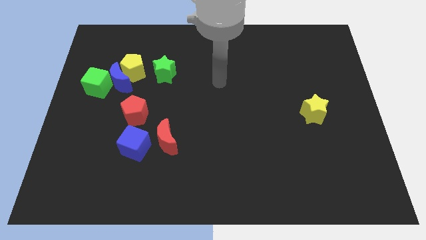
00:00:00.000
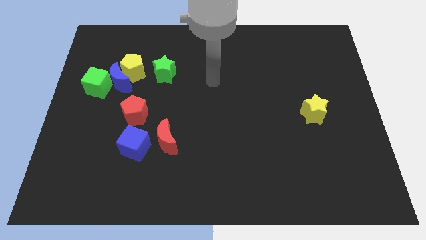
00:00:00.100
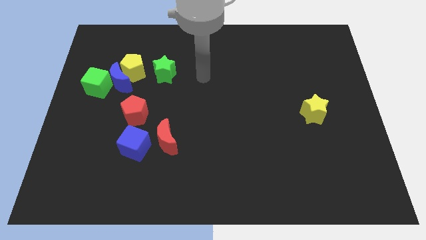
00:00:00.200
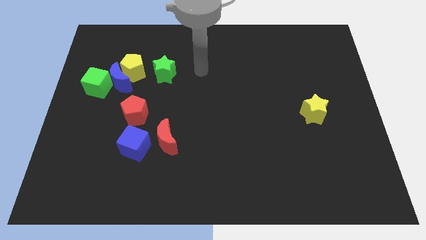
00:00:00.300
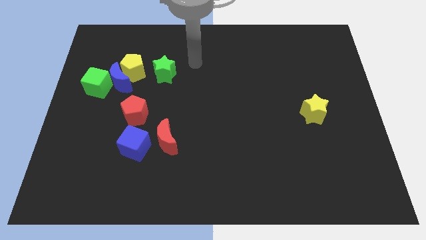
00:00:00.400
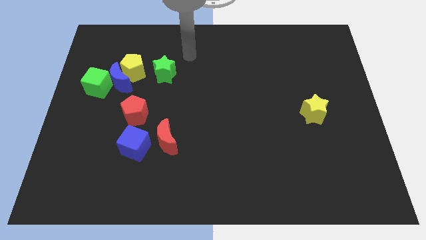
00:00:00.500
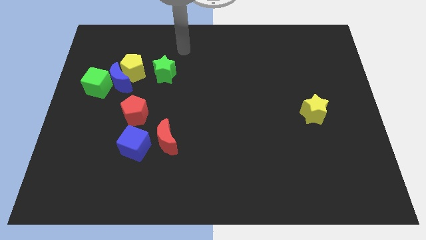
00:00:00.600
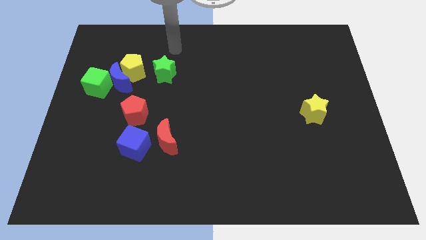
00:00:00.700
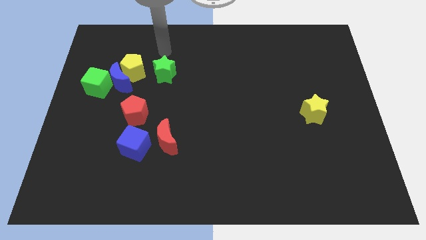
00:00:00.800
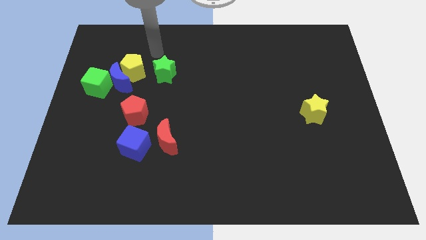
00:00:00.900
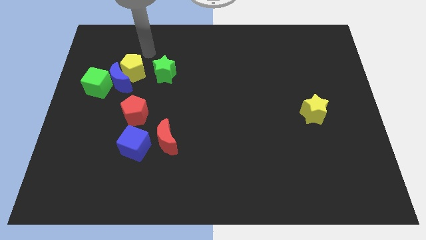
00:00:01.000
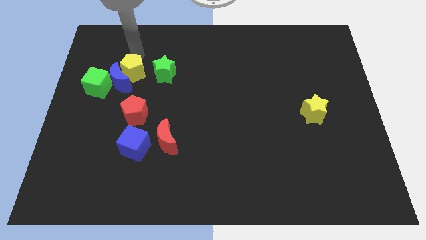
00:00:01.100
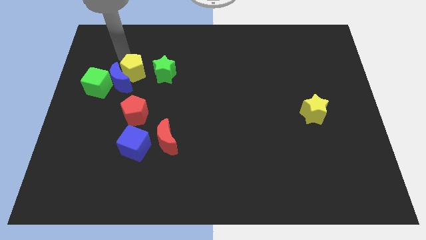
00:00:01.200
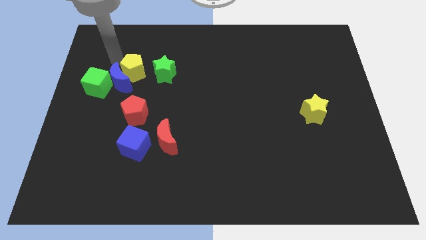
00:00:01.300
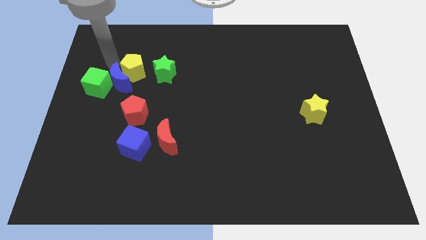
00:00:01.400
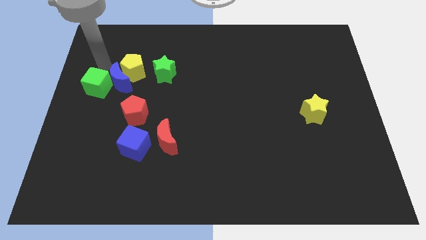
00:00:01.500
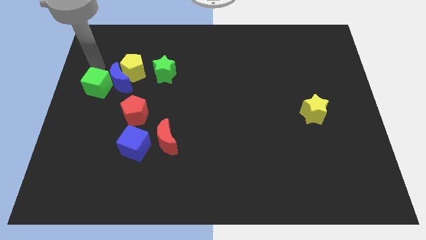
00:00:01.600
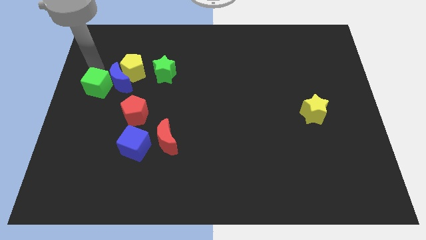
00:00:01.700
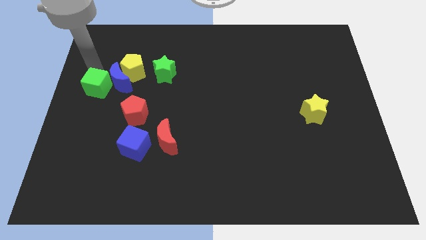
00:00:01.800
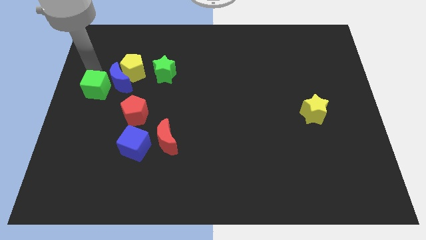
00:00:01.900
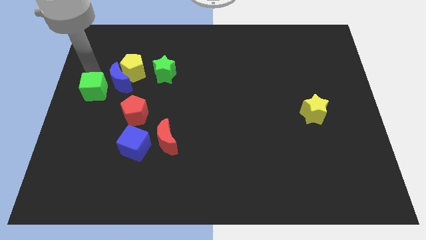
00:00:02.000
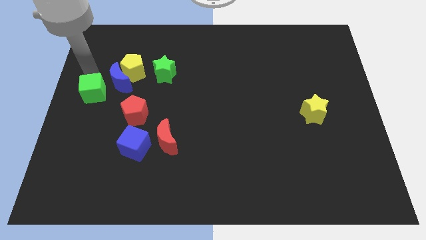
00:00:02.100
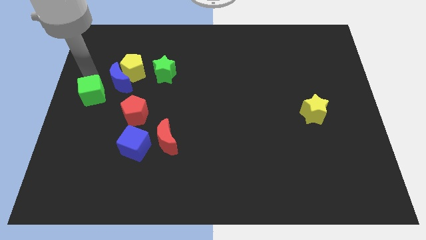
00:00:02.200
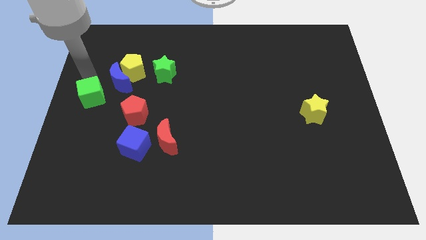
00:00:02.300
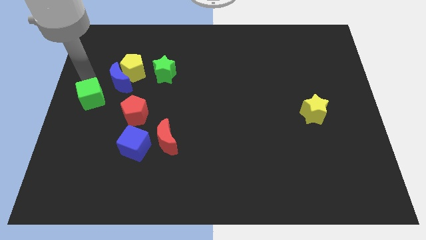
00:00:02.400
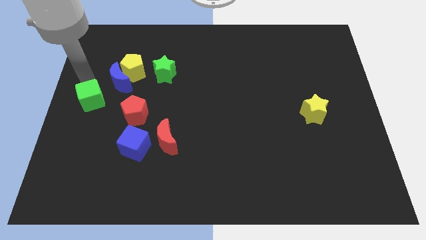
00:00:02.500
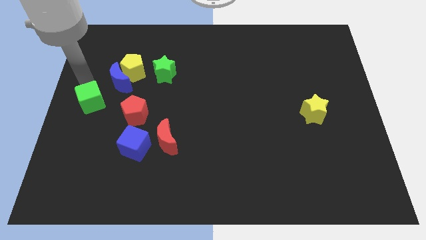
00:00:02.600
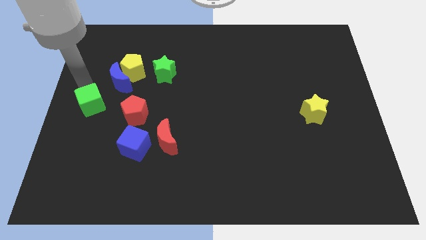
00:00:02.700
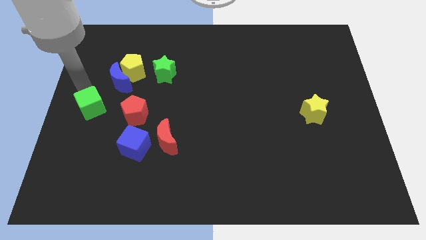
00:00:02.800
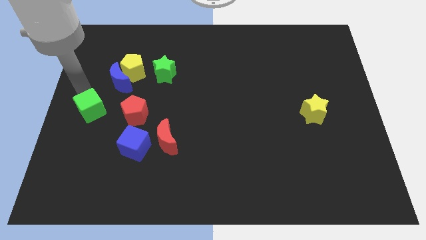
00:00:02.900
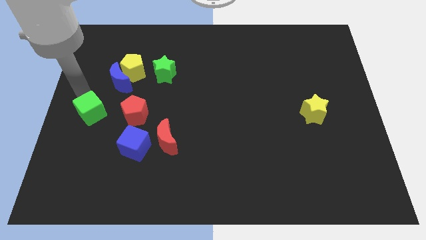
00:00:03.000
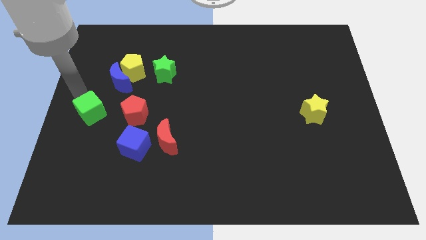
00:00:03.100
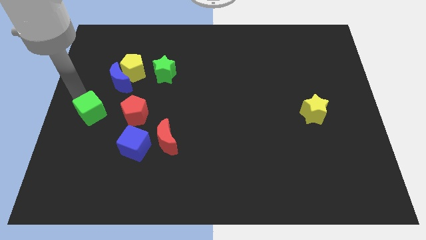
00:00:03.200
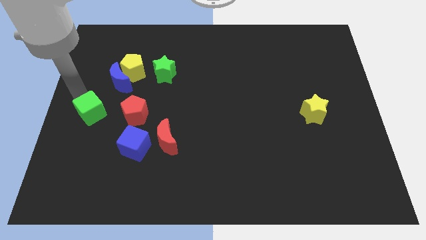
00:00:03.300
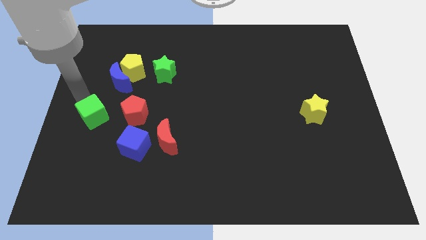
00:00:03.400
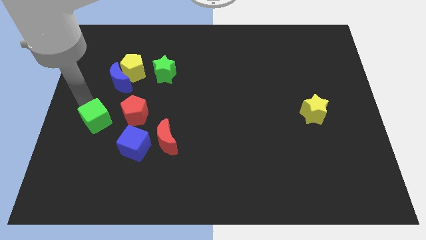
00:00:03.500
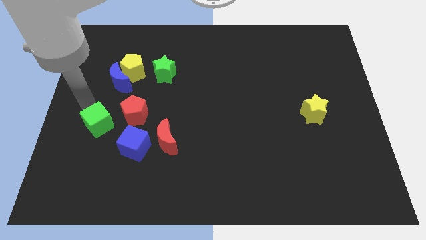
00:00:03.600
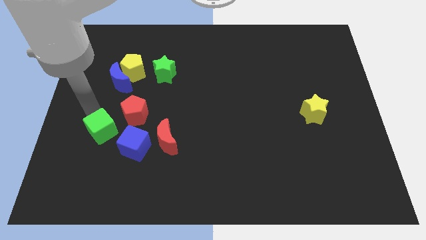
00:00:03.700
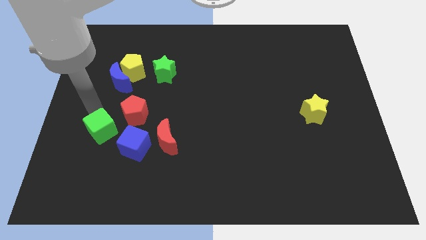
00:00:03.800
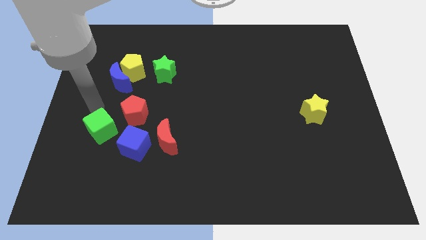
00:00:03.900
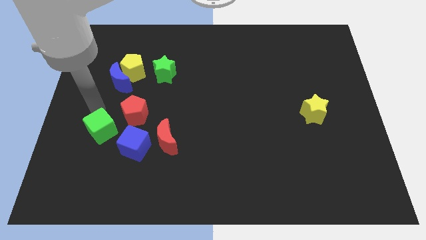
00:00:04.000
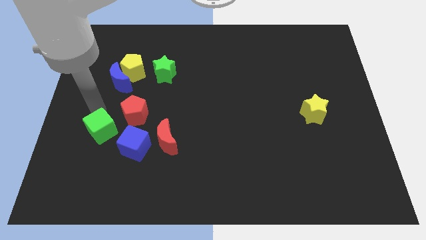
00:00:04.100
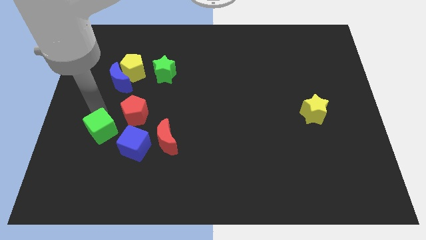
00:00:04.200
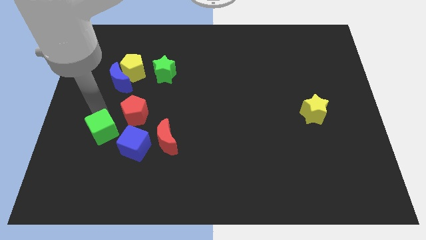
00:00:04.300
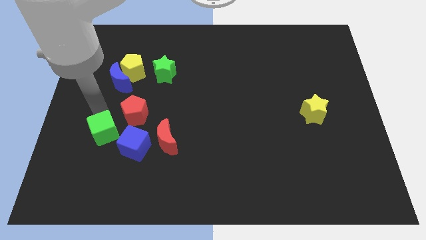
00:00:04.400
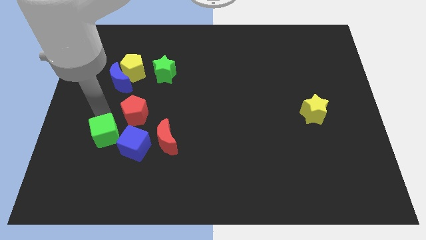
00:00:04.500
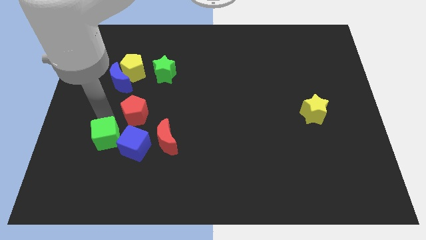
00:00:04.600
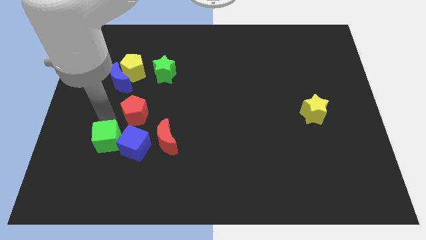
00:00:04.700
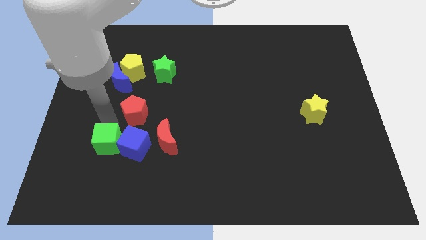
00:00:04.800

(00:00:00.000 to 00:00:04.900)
push the green cube to the bottom left of the blue cube

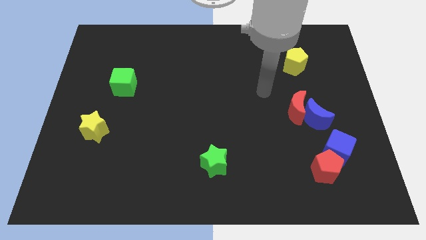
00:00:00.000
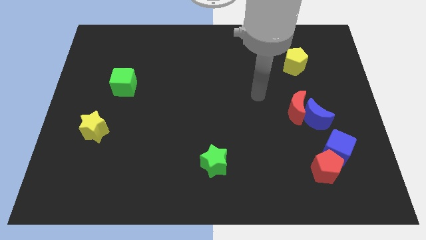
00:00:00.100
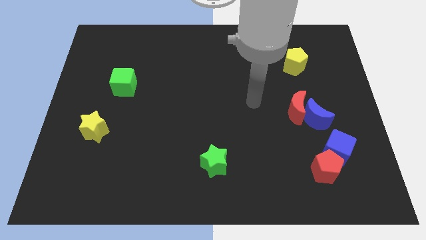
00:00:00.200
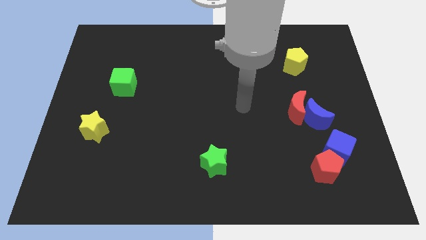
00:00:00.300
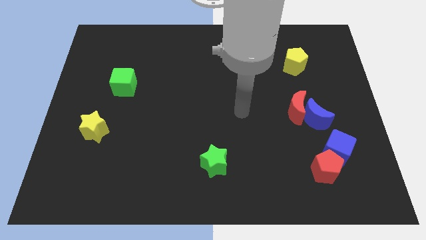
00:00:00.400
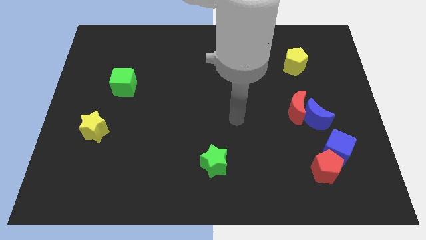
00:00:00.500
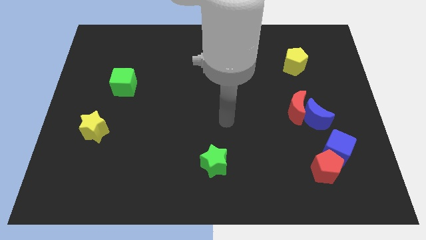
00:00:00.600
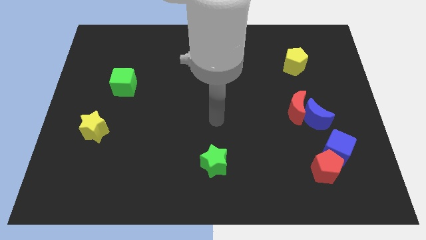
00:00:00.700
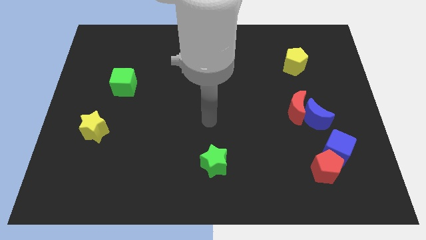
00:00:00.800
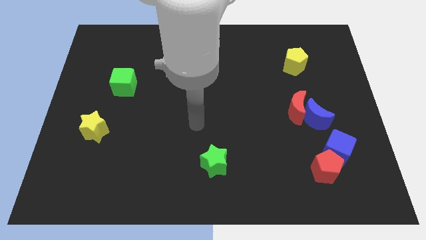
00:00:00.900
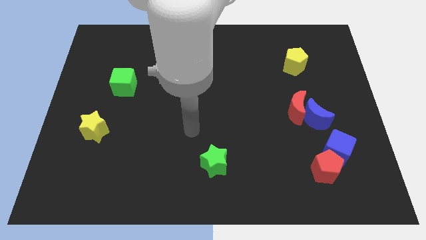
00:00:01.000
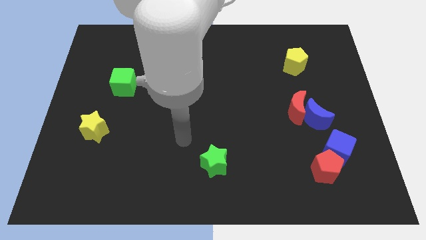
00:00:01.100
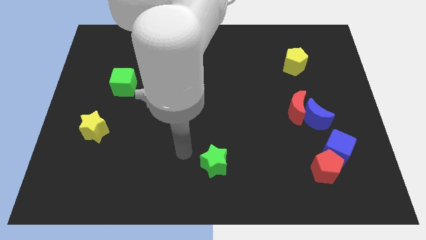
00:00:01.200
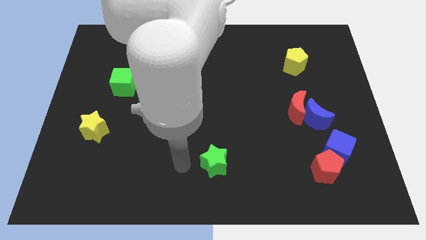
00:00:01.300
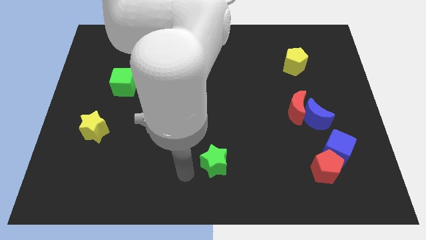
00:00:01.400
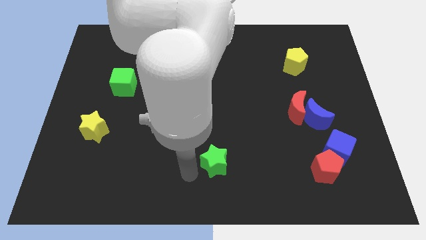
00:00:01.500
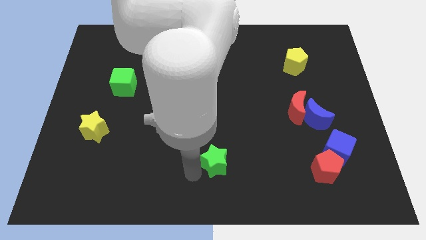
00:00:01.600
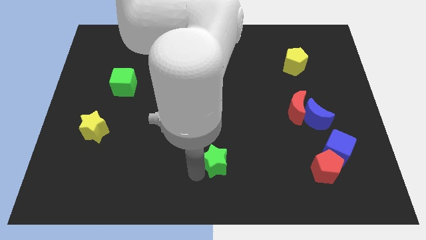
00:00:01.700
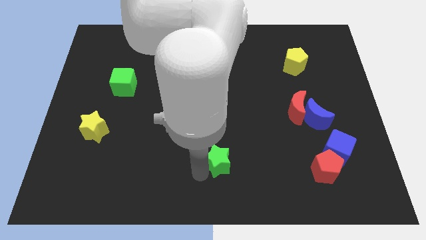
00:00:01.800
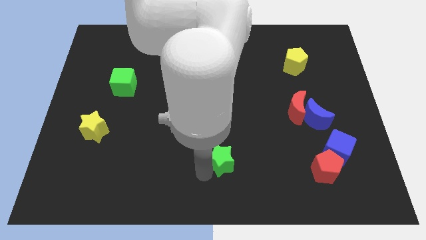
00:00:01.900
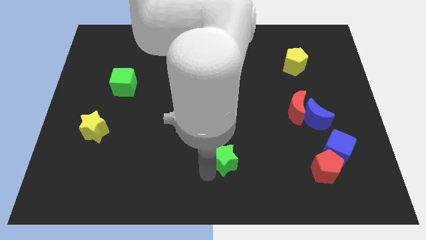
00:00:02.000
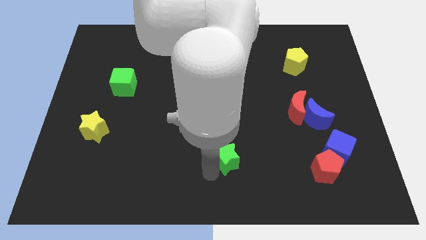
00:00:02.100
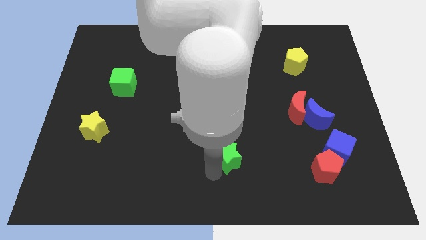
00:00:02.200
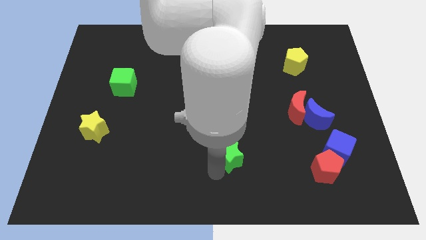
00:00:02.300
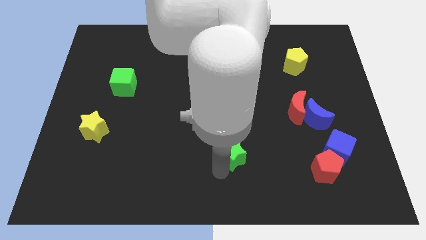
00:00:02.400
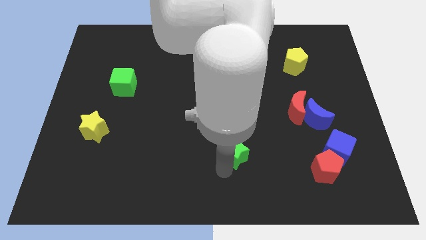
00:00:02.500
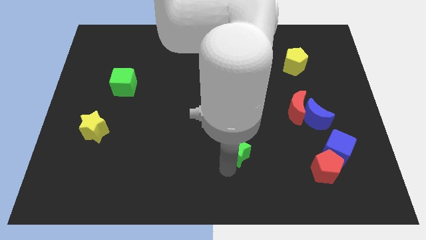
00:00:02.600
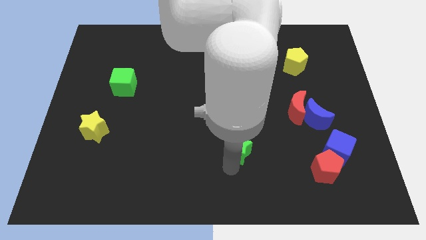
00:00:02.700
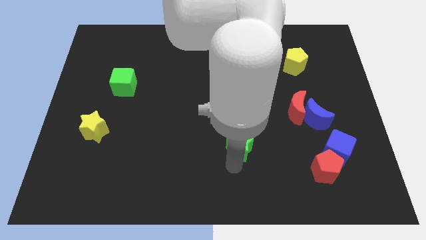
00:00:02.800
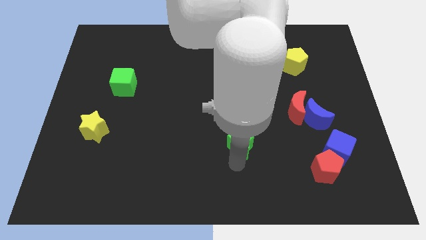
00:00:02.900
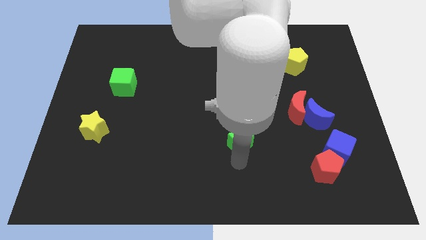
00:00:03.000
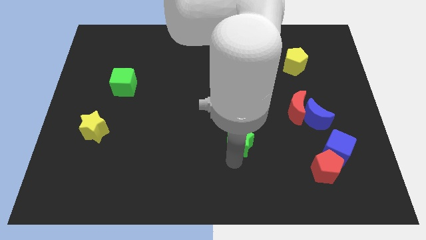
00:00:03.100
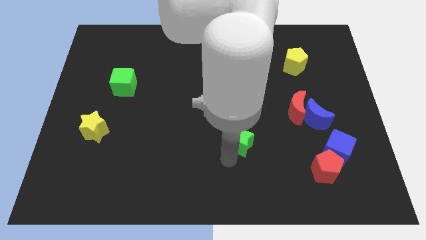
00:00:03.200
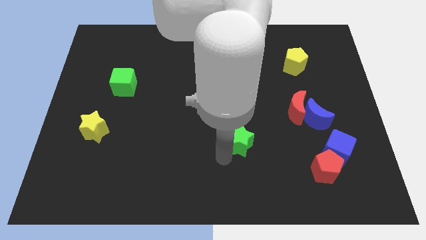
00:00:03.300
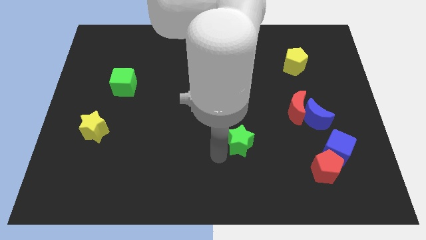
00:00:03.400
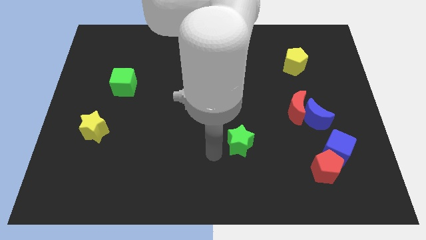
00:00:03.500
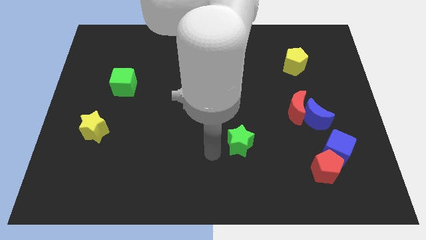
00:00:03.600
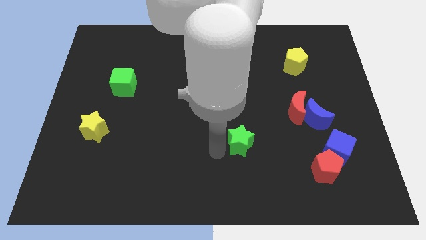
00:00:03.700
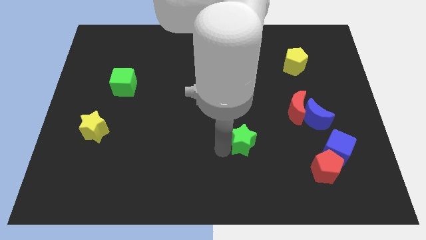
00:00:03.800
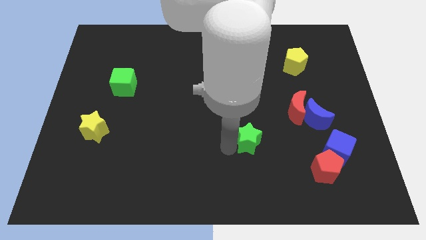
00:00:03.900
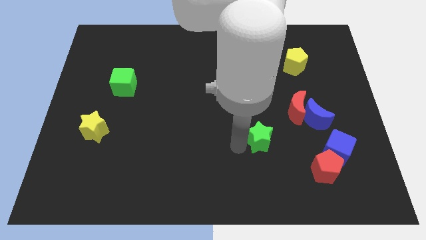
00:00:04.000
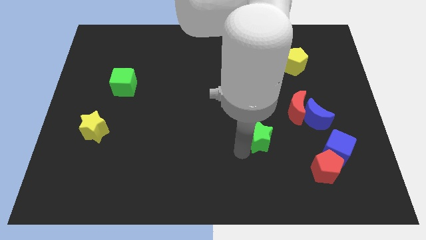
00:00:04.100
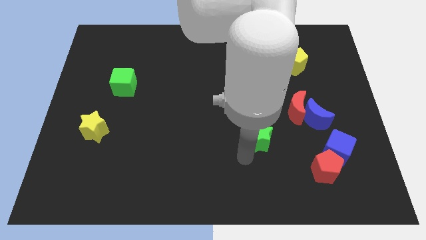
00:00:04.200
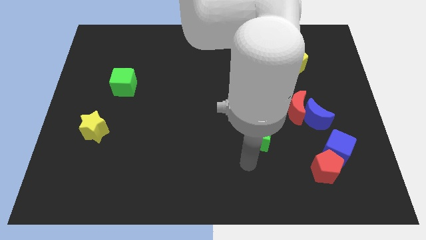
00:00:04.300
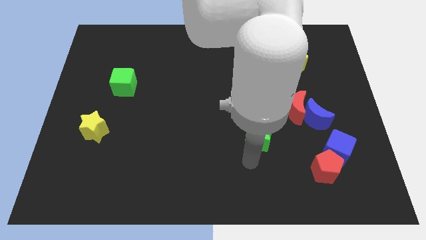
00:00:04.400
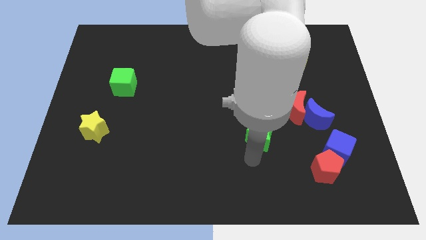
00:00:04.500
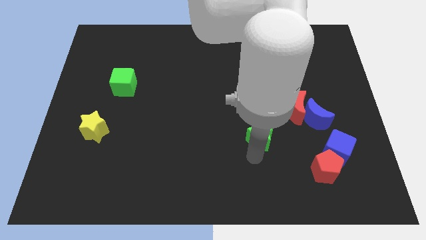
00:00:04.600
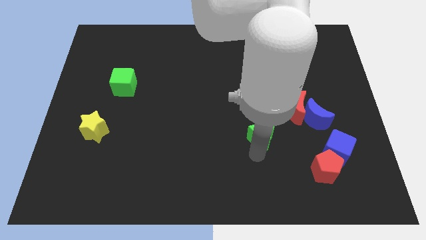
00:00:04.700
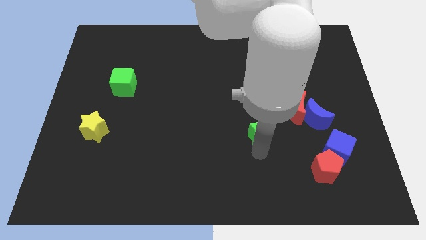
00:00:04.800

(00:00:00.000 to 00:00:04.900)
slide the green star to the left side of the blue moon
